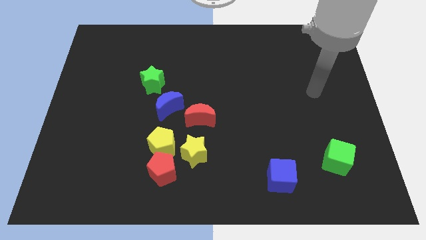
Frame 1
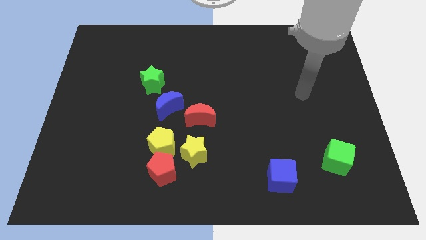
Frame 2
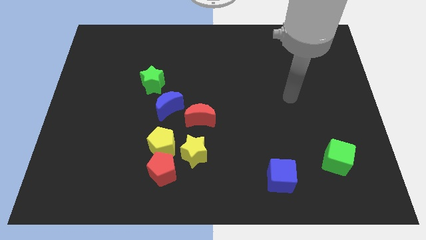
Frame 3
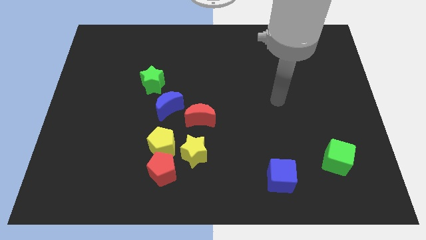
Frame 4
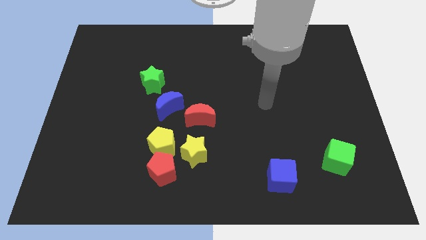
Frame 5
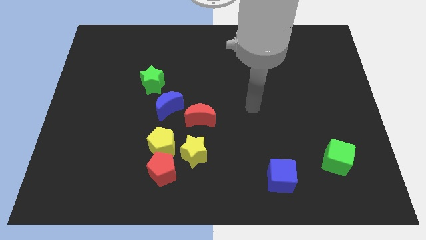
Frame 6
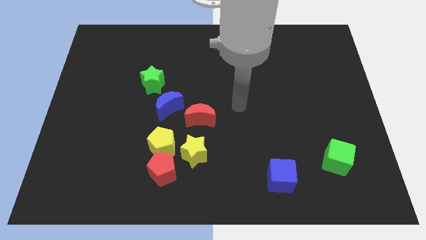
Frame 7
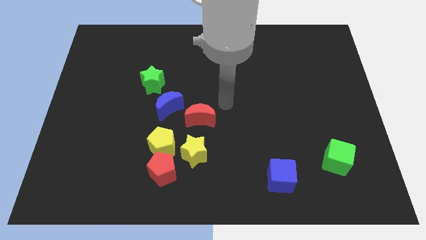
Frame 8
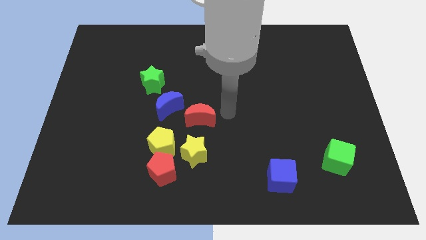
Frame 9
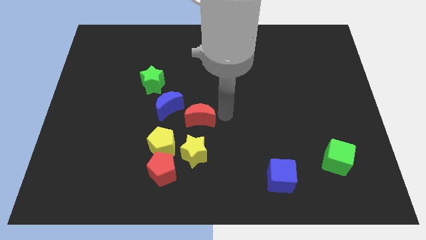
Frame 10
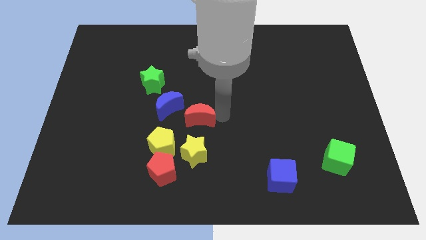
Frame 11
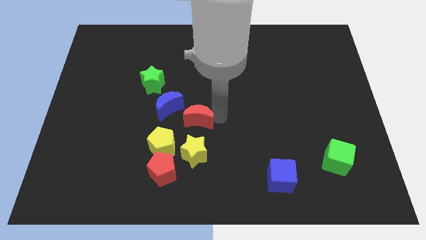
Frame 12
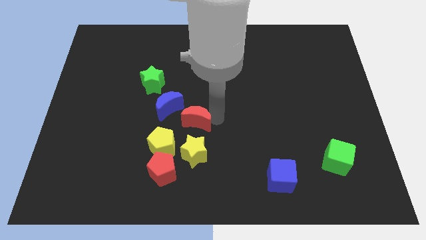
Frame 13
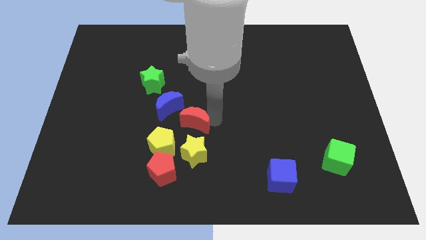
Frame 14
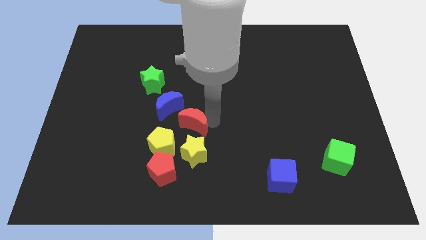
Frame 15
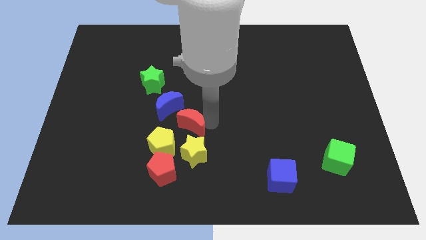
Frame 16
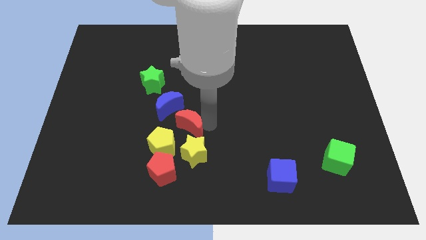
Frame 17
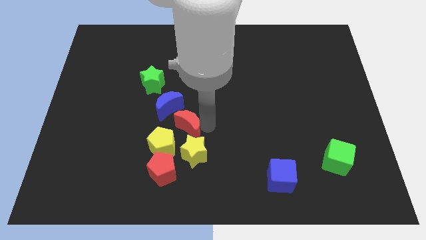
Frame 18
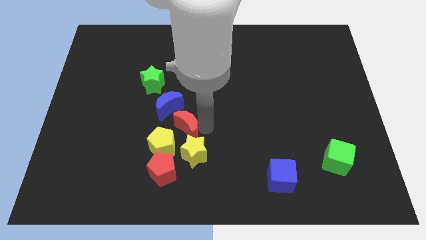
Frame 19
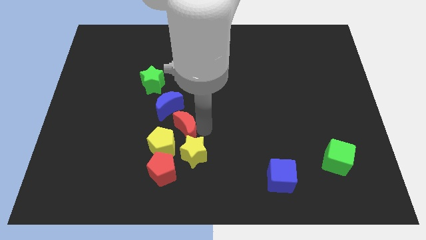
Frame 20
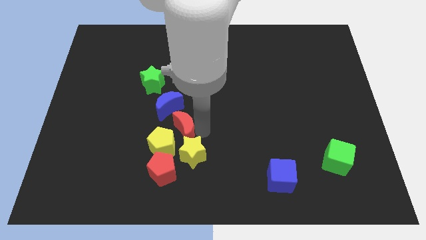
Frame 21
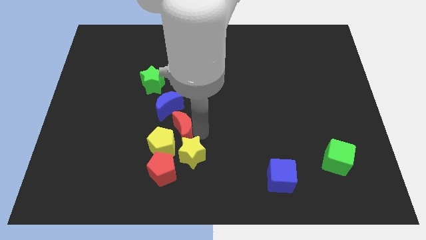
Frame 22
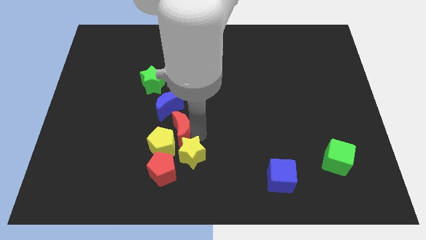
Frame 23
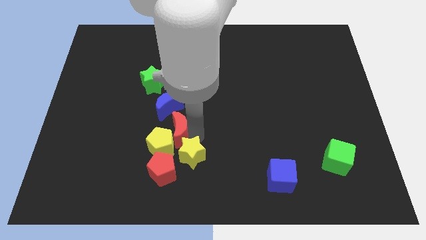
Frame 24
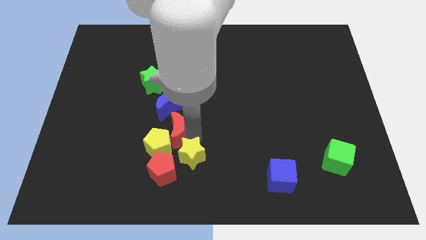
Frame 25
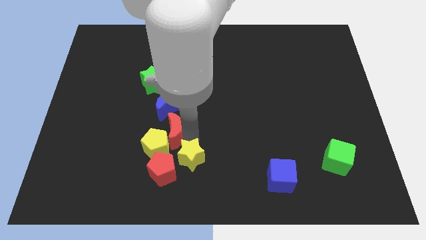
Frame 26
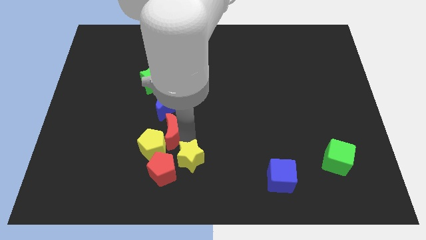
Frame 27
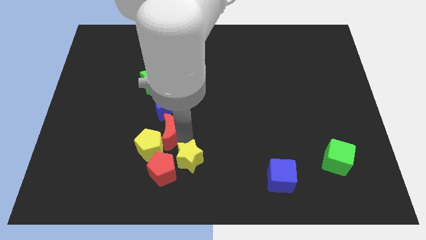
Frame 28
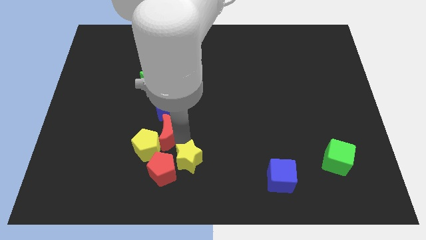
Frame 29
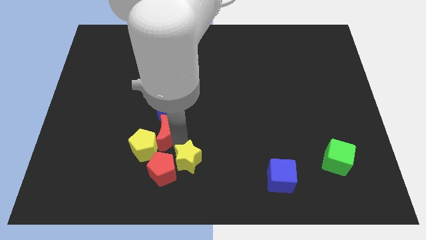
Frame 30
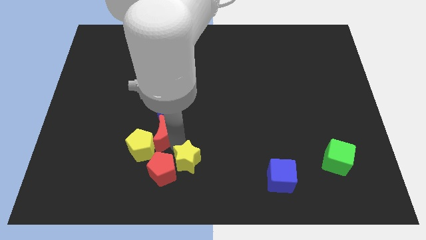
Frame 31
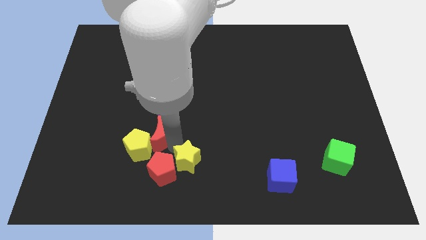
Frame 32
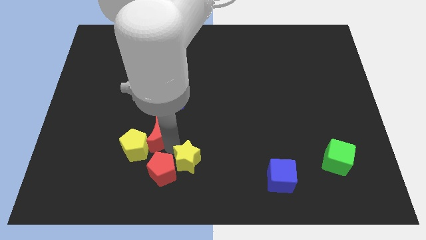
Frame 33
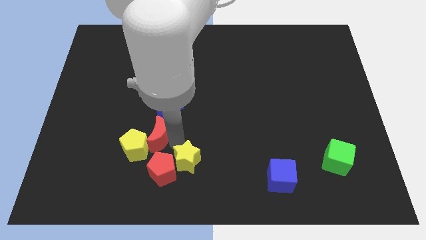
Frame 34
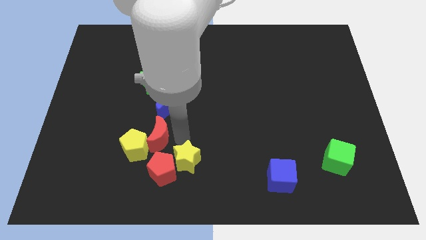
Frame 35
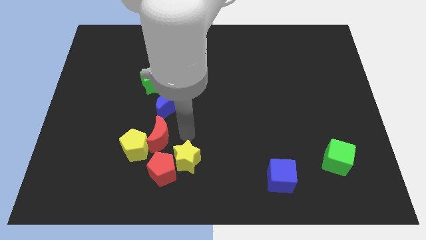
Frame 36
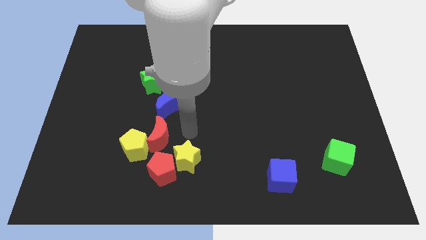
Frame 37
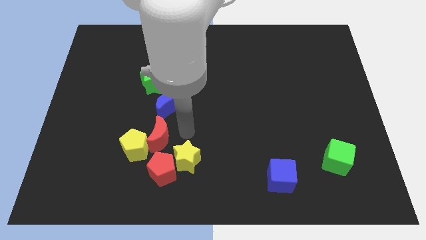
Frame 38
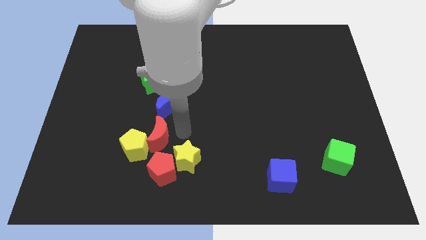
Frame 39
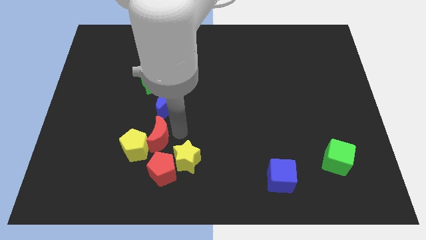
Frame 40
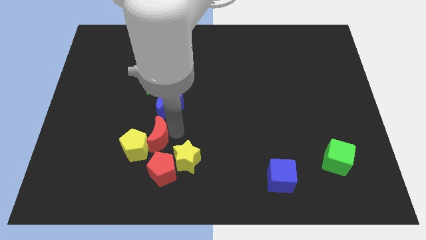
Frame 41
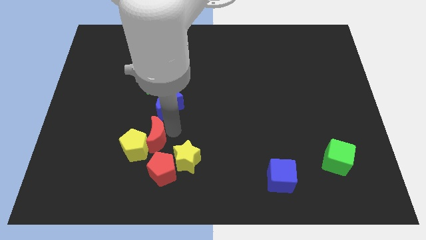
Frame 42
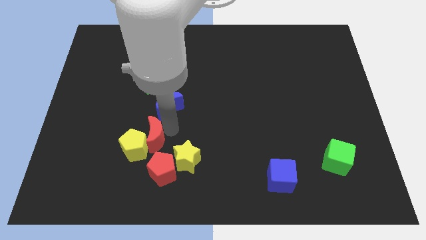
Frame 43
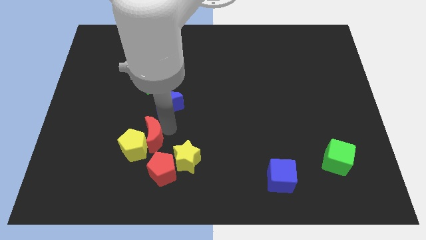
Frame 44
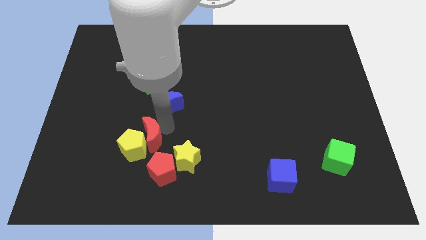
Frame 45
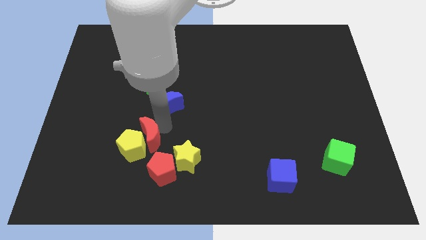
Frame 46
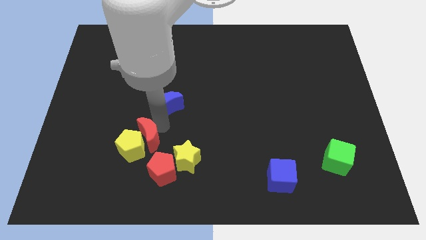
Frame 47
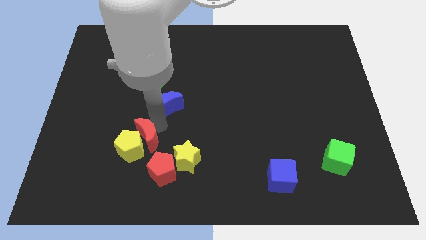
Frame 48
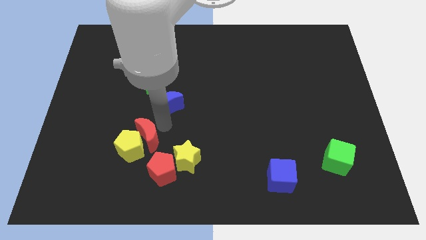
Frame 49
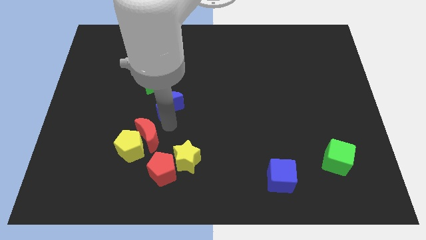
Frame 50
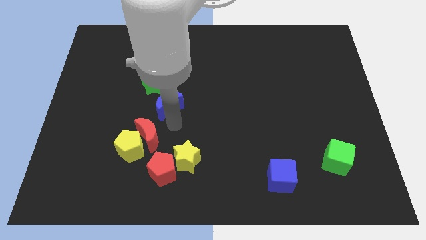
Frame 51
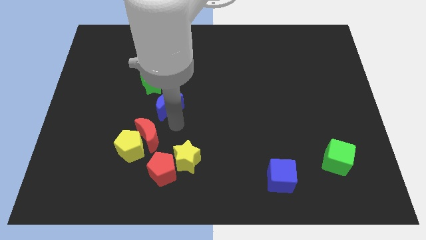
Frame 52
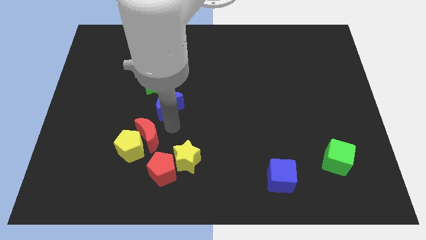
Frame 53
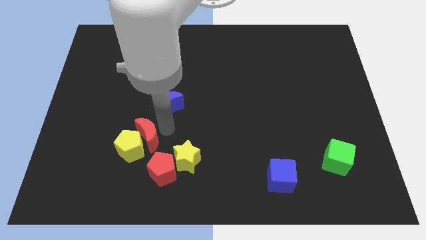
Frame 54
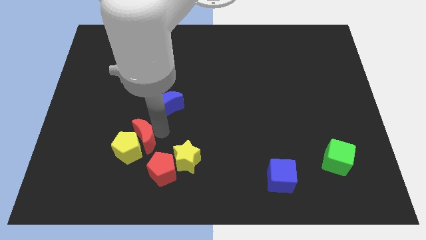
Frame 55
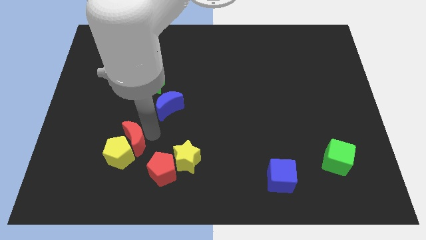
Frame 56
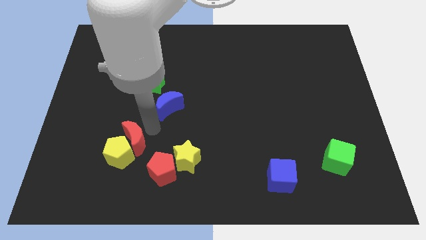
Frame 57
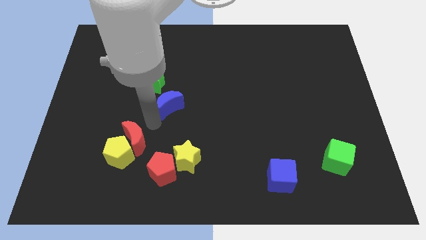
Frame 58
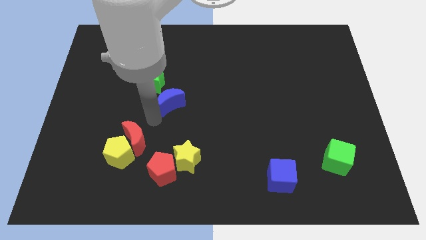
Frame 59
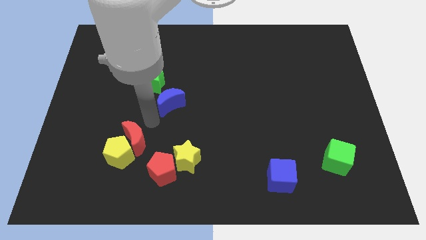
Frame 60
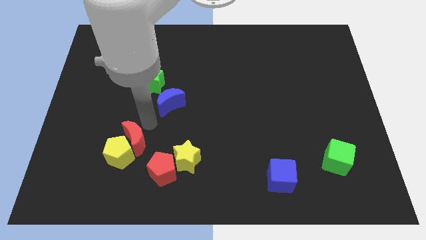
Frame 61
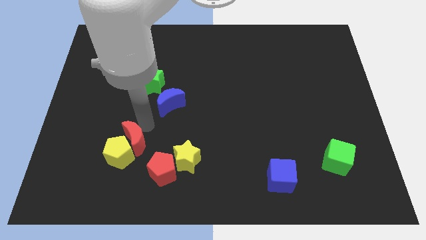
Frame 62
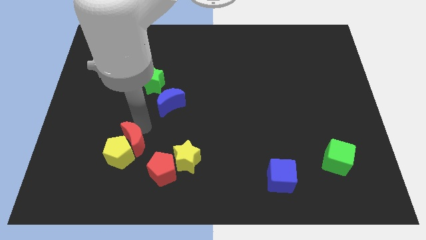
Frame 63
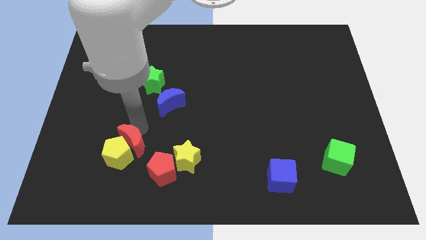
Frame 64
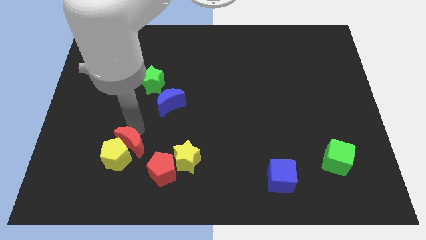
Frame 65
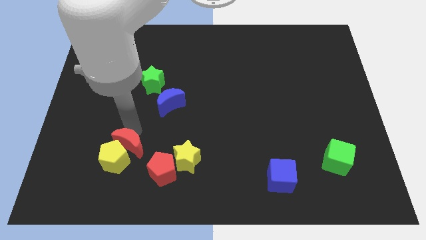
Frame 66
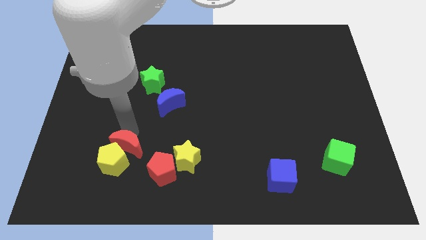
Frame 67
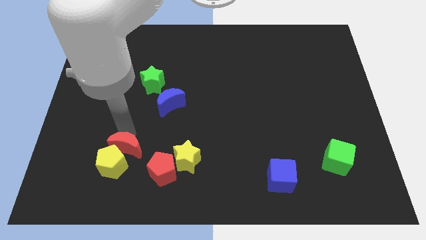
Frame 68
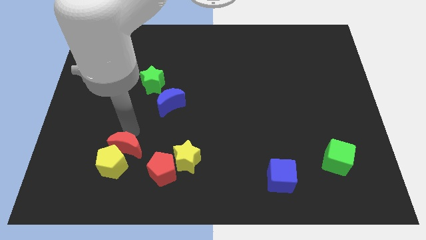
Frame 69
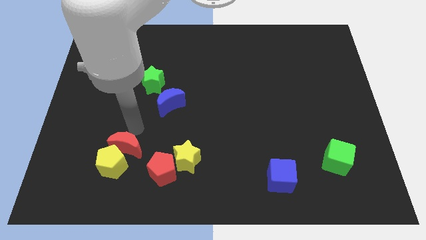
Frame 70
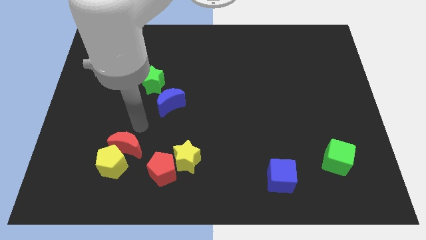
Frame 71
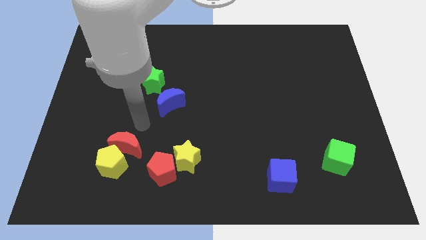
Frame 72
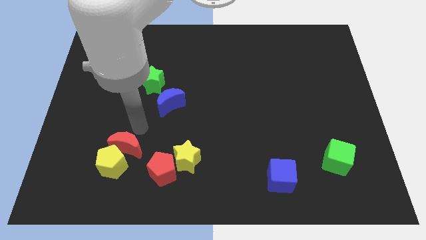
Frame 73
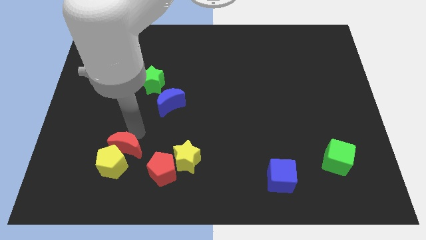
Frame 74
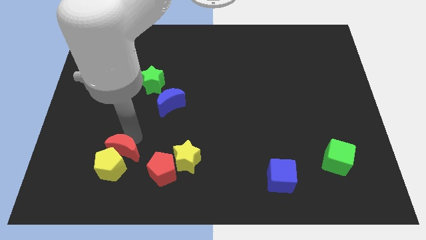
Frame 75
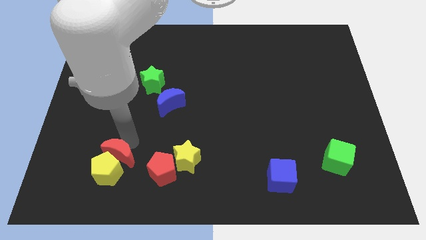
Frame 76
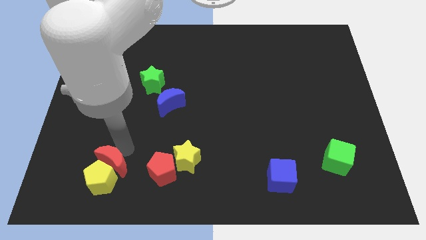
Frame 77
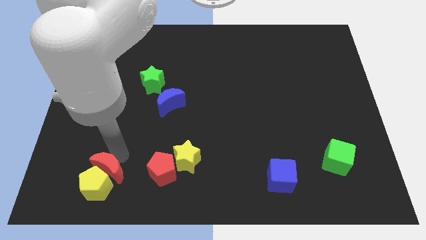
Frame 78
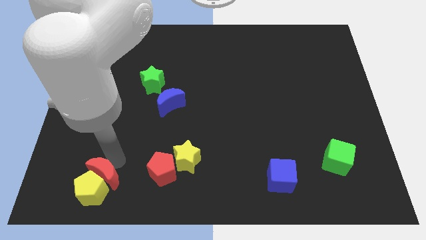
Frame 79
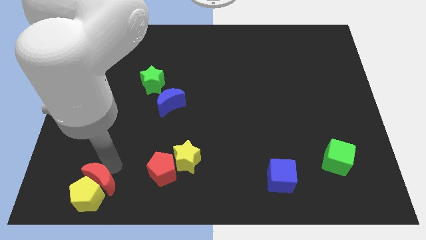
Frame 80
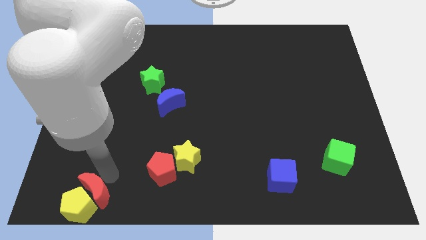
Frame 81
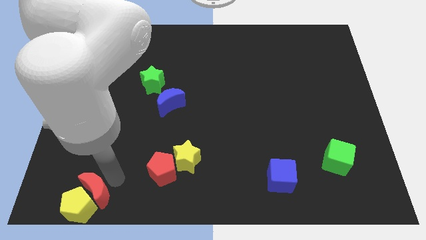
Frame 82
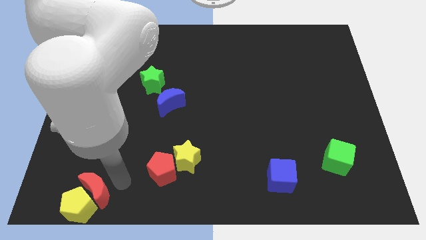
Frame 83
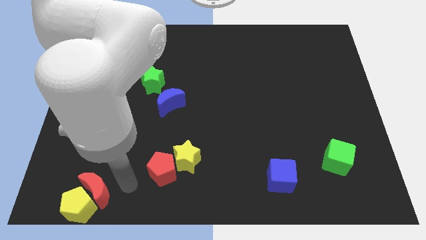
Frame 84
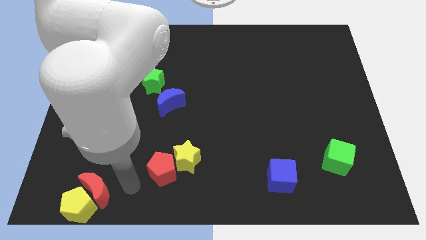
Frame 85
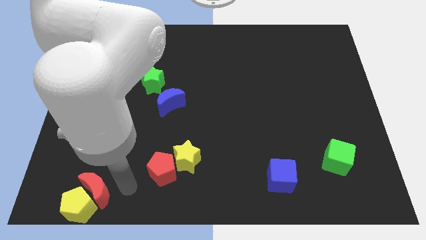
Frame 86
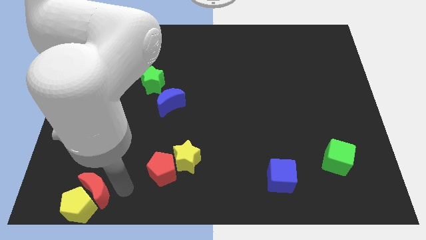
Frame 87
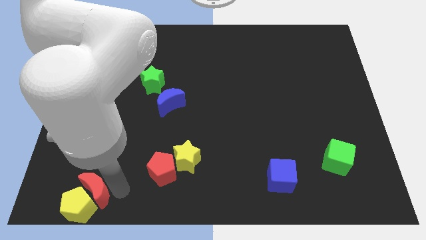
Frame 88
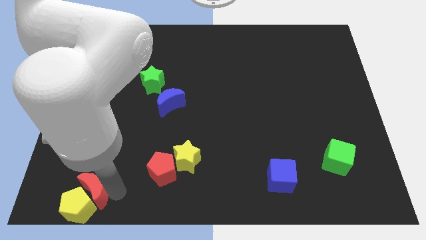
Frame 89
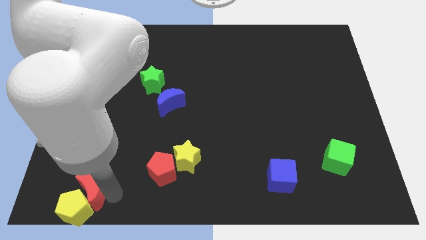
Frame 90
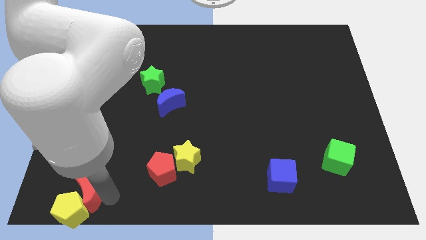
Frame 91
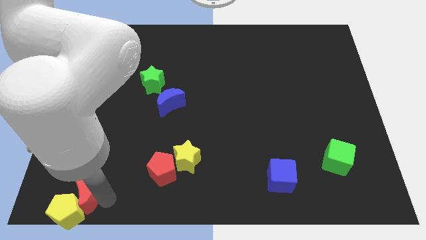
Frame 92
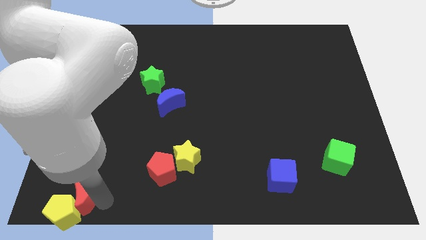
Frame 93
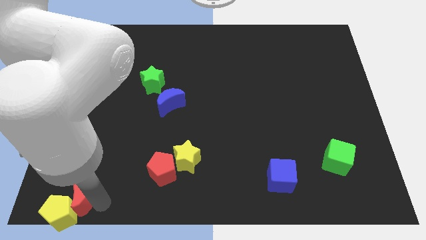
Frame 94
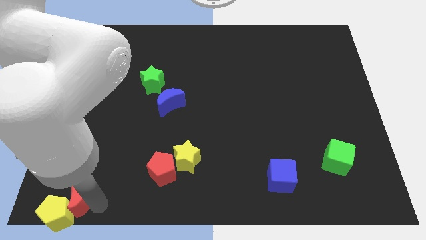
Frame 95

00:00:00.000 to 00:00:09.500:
put the red moon to the bottom left corner
